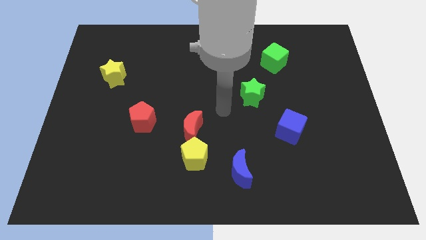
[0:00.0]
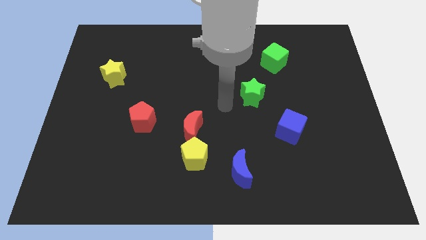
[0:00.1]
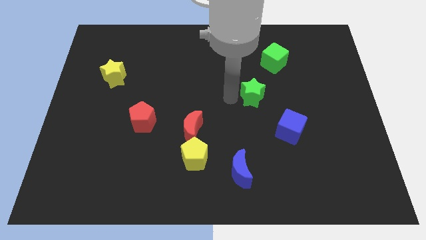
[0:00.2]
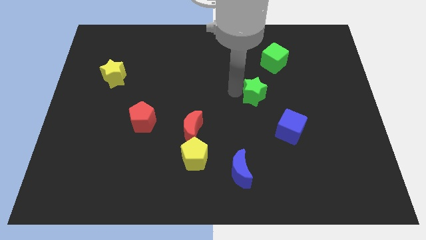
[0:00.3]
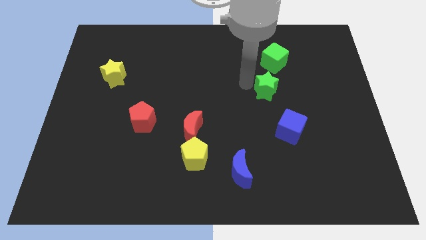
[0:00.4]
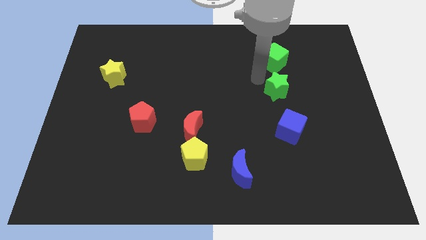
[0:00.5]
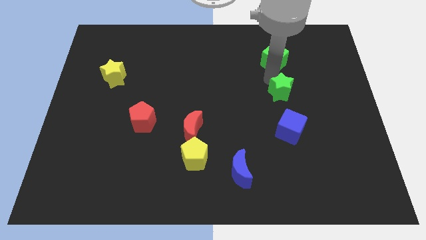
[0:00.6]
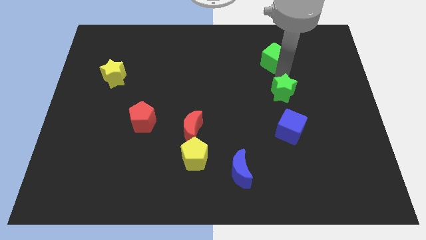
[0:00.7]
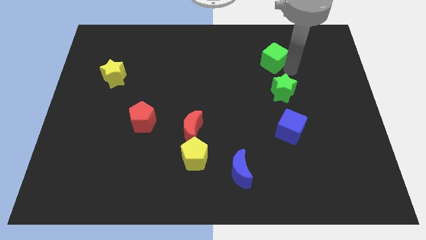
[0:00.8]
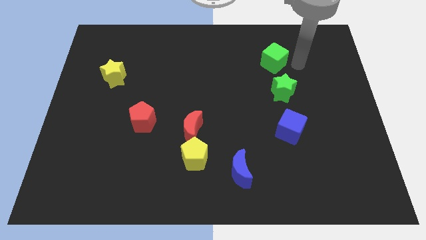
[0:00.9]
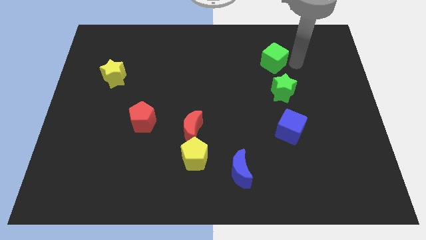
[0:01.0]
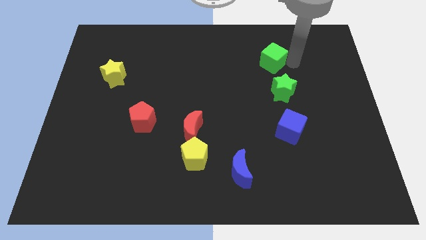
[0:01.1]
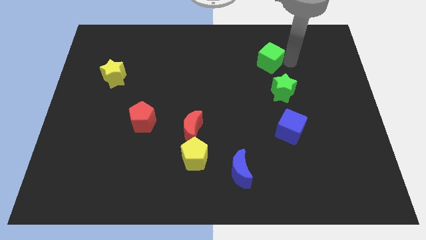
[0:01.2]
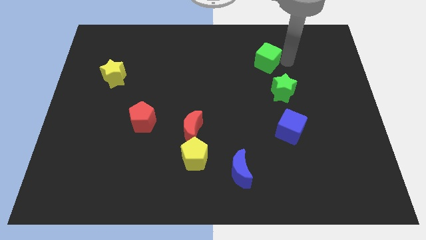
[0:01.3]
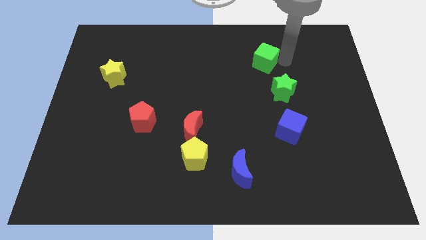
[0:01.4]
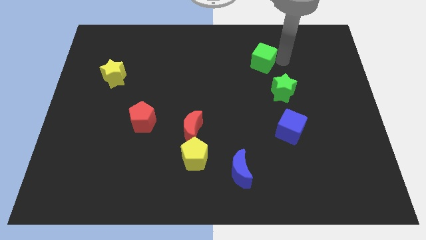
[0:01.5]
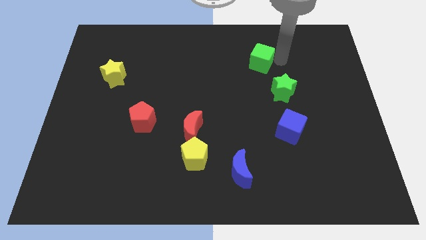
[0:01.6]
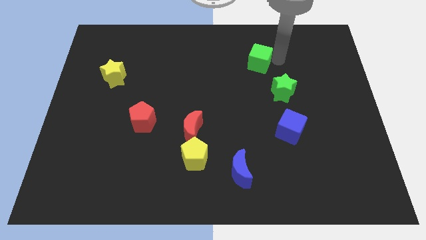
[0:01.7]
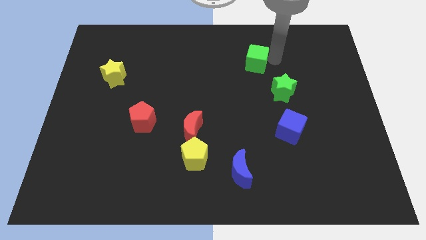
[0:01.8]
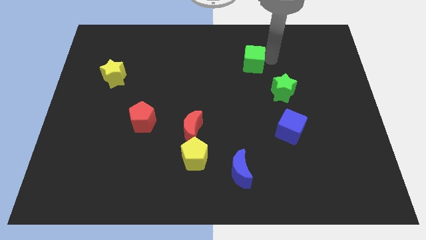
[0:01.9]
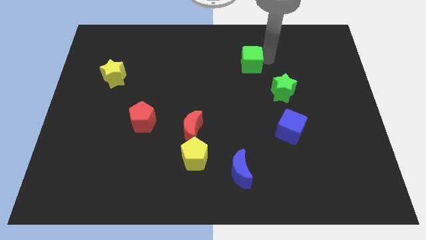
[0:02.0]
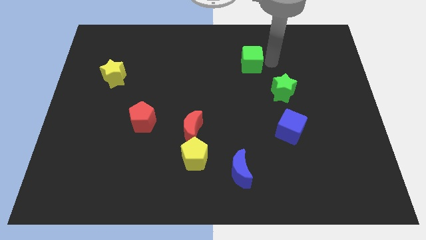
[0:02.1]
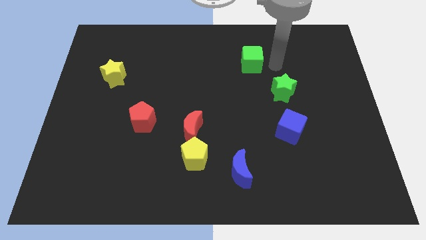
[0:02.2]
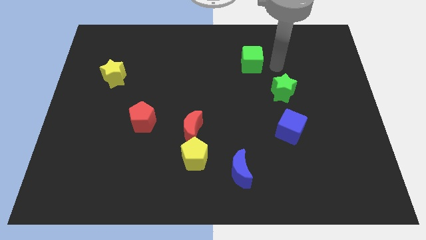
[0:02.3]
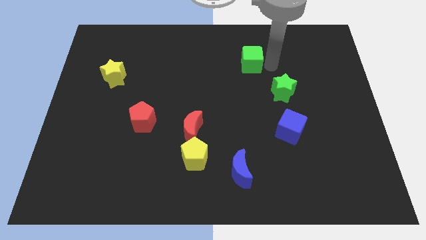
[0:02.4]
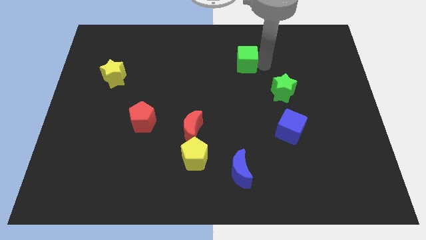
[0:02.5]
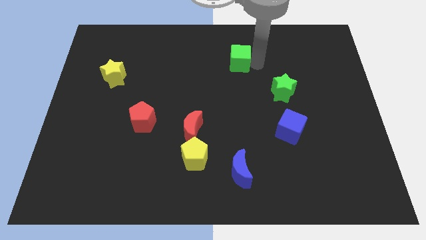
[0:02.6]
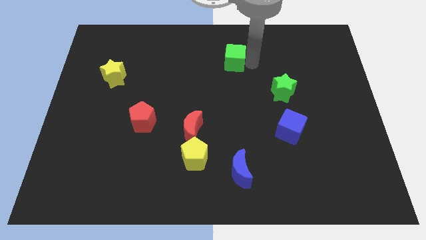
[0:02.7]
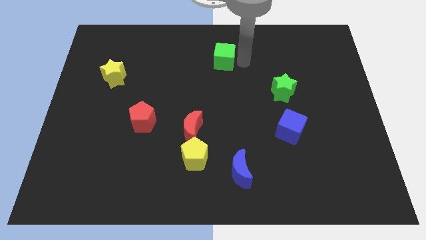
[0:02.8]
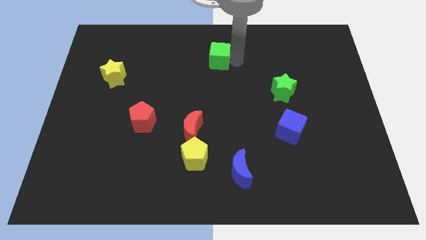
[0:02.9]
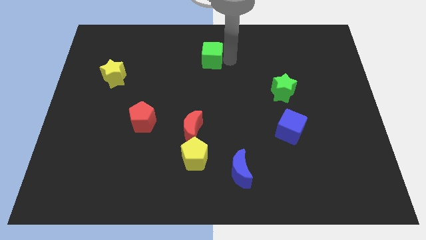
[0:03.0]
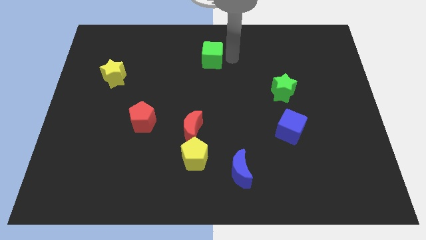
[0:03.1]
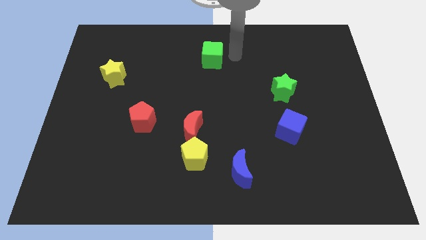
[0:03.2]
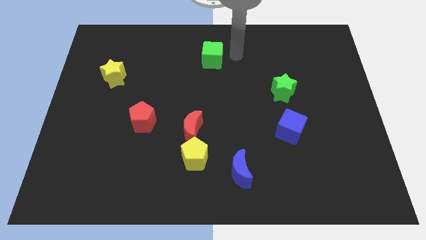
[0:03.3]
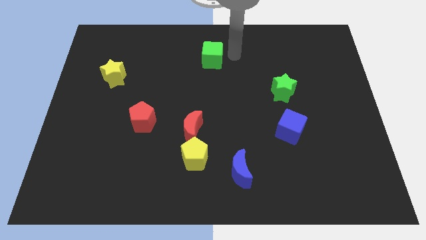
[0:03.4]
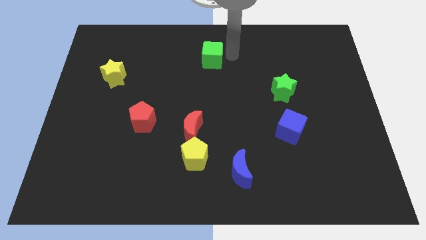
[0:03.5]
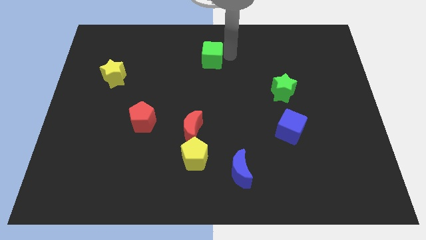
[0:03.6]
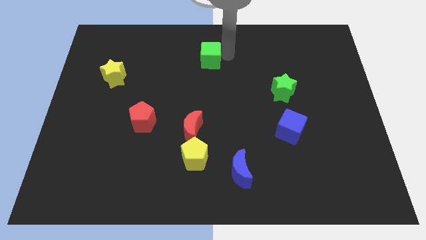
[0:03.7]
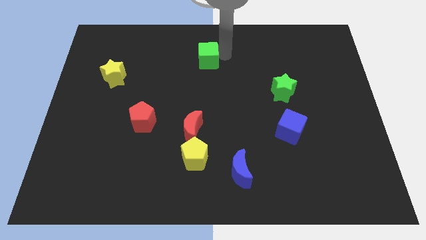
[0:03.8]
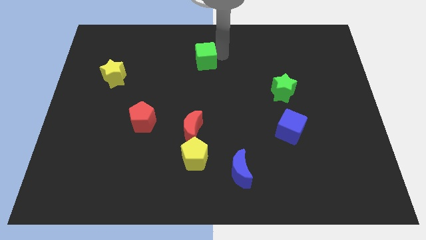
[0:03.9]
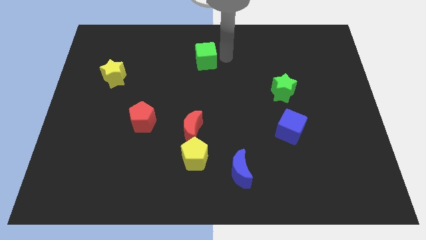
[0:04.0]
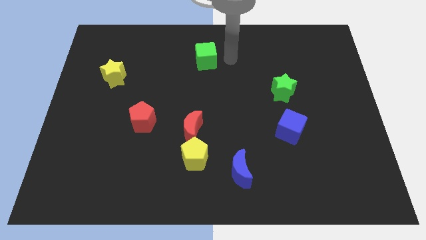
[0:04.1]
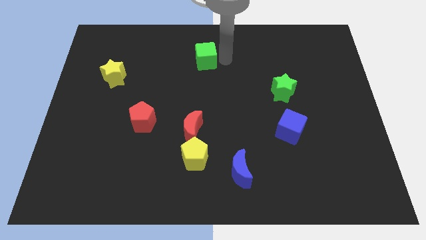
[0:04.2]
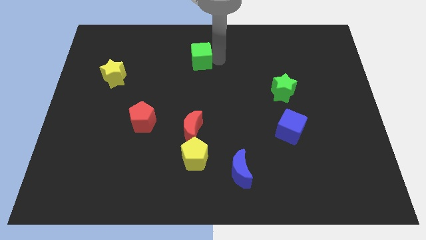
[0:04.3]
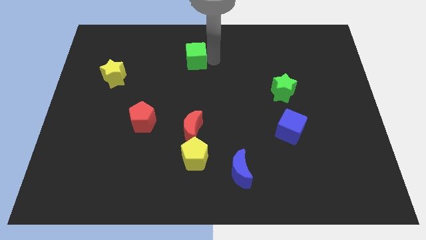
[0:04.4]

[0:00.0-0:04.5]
slide the green cube to the left

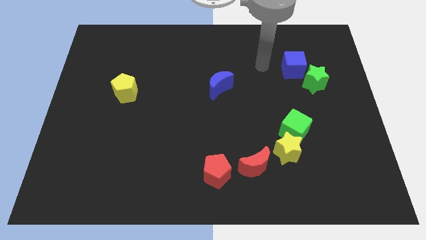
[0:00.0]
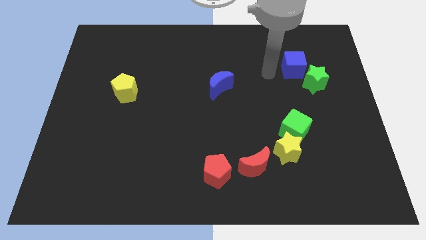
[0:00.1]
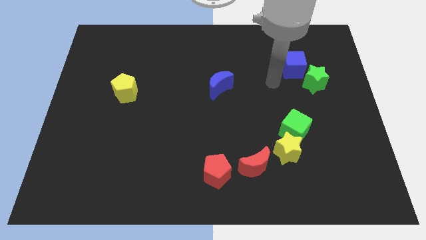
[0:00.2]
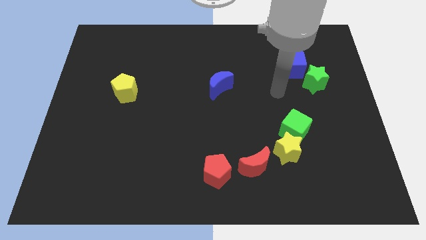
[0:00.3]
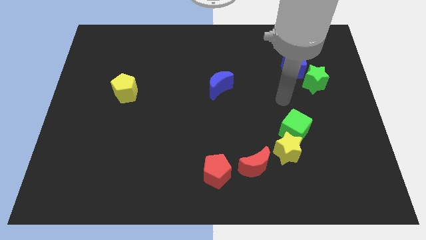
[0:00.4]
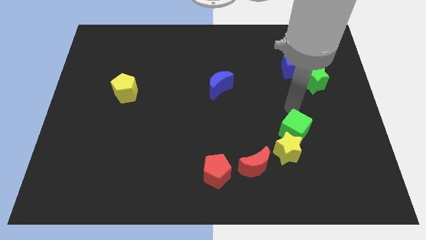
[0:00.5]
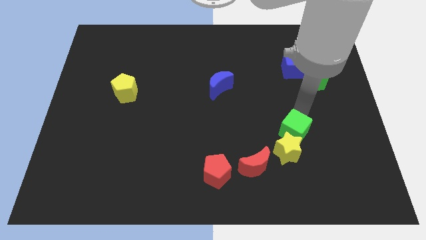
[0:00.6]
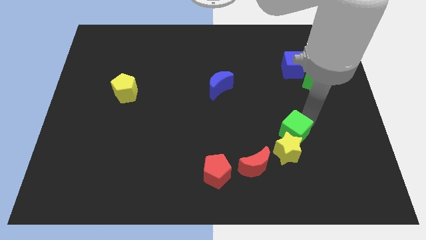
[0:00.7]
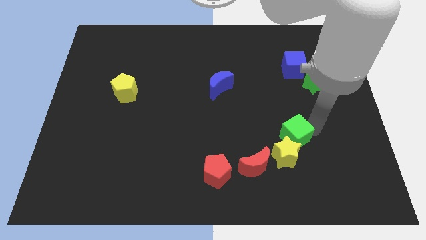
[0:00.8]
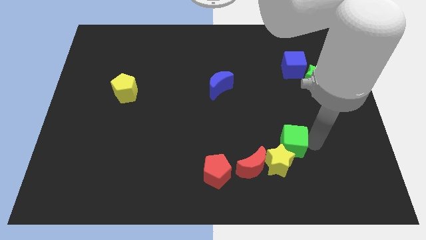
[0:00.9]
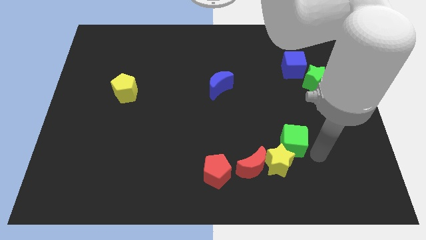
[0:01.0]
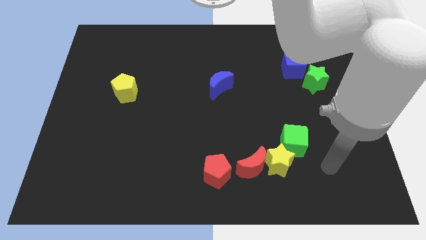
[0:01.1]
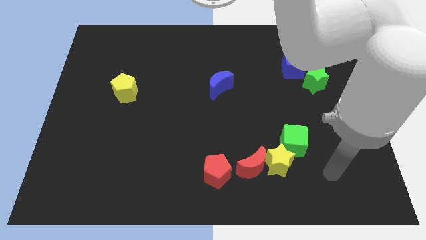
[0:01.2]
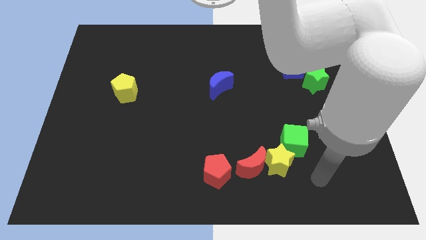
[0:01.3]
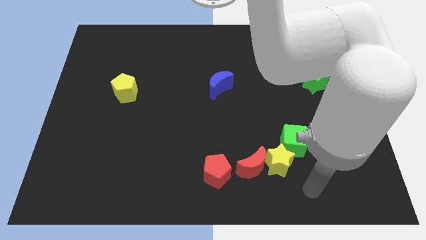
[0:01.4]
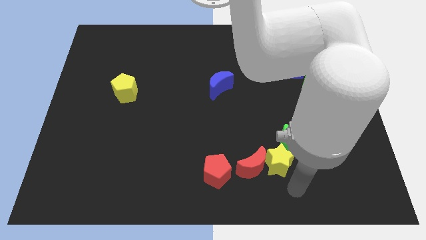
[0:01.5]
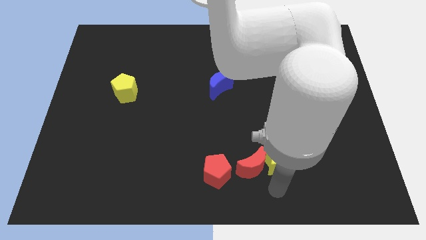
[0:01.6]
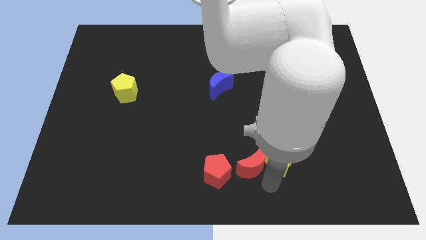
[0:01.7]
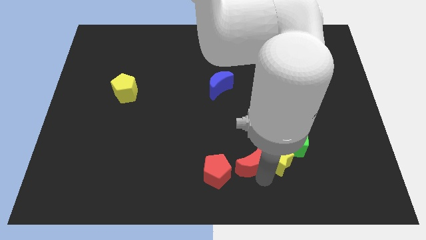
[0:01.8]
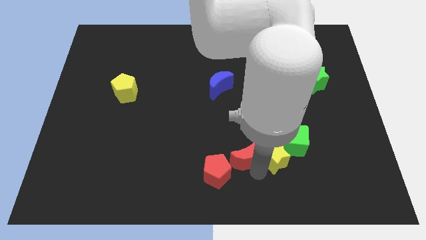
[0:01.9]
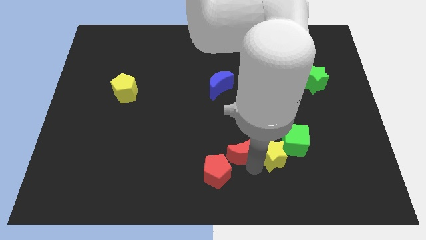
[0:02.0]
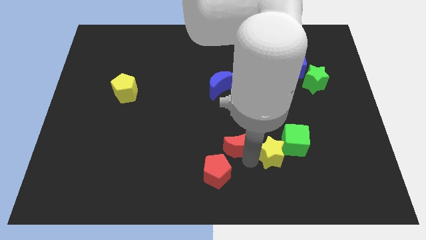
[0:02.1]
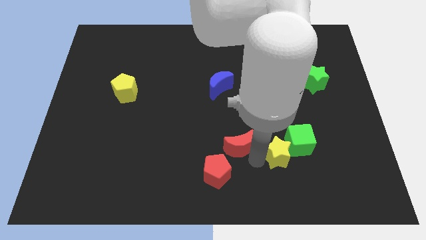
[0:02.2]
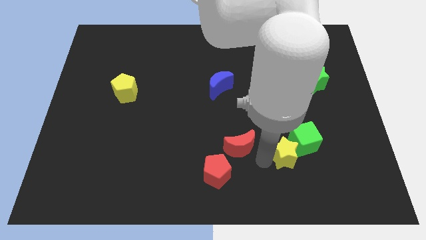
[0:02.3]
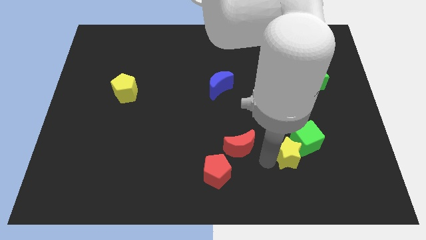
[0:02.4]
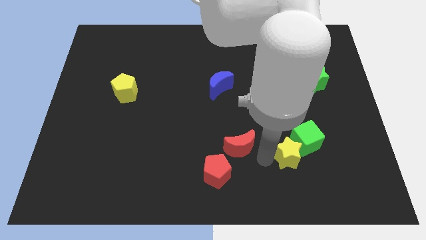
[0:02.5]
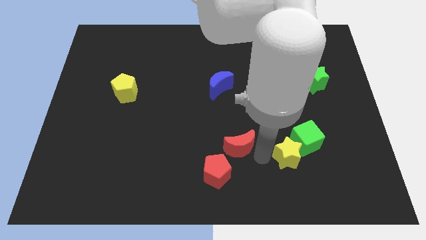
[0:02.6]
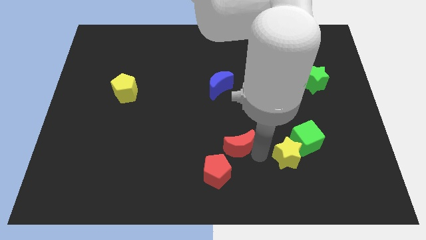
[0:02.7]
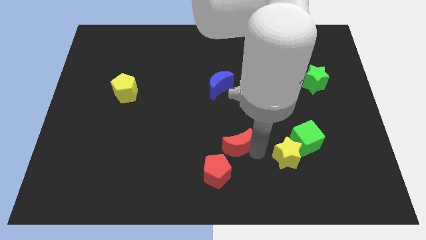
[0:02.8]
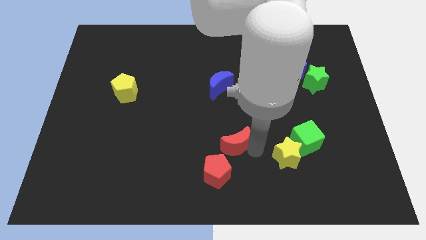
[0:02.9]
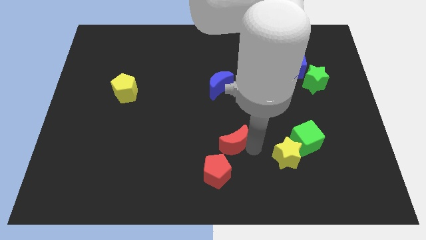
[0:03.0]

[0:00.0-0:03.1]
push the red moon up and left slightly

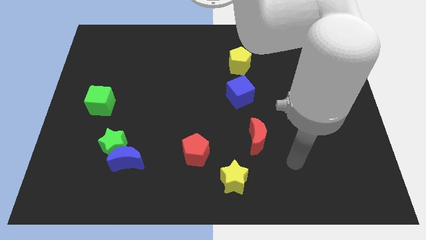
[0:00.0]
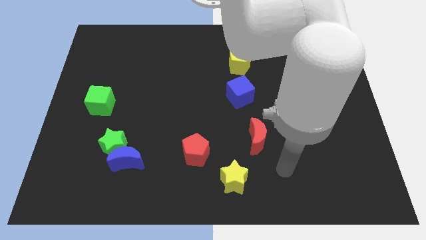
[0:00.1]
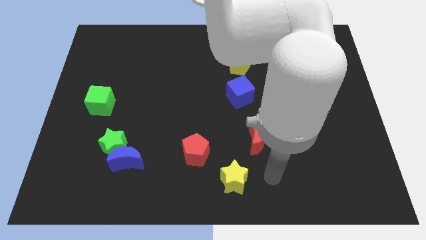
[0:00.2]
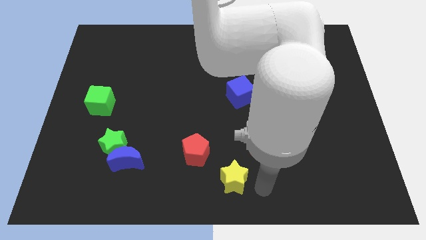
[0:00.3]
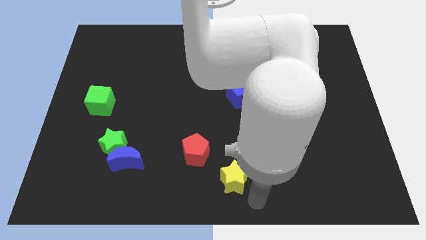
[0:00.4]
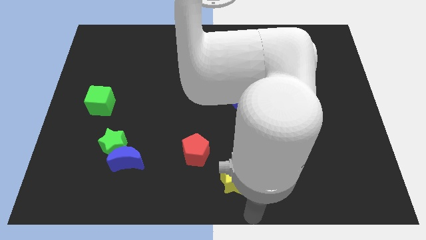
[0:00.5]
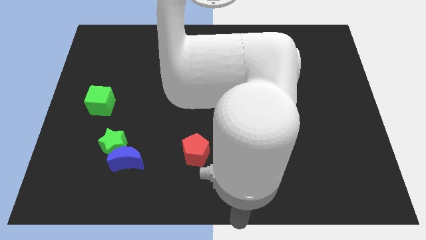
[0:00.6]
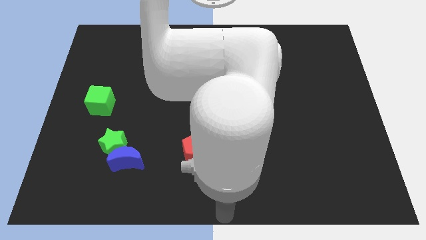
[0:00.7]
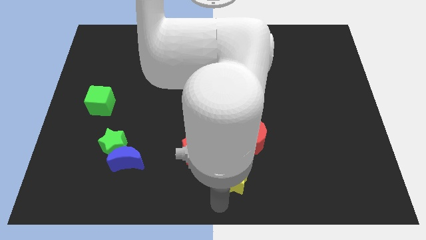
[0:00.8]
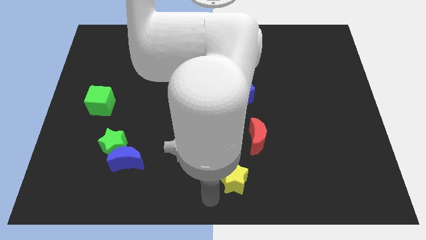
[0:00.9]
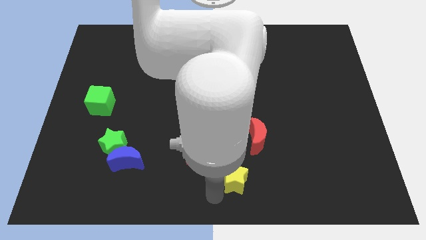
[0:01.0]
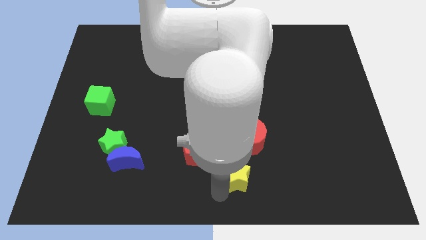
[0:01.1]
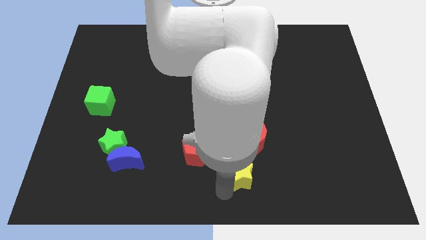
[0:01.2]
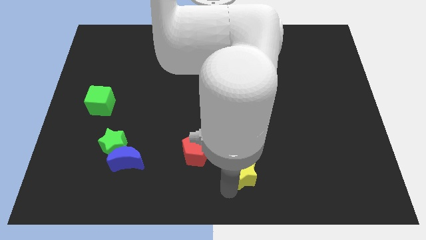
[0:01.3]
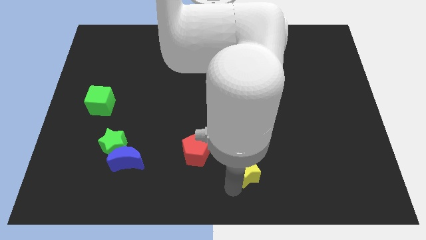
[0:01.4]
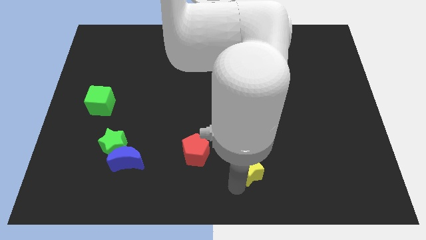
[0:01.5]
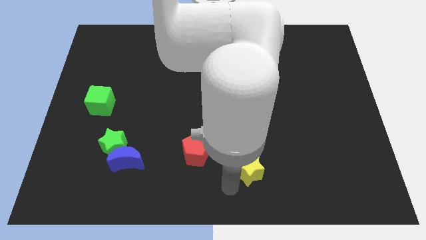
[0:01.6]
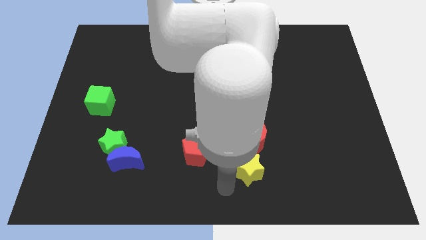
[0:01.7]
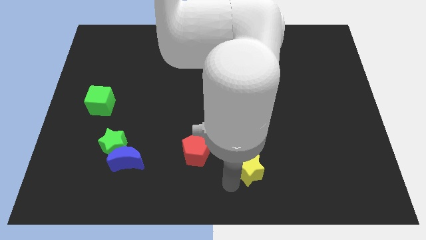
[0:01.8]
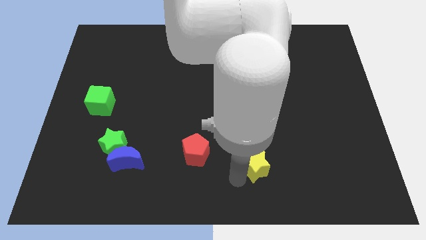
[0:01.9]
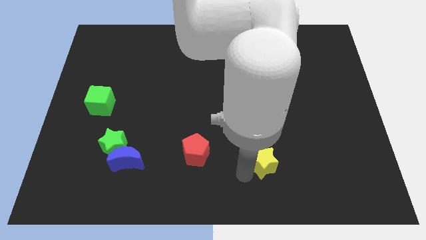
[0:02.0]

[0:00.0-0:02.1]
slide the yellow star somewhat upwards and to the right diagonally
